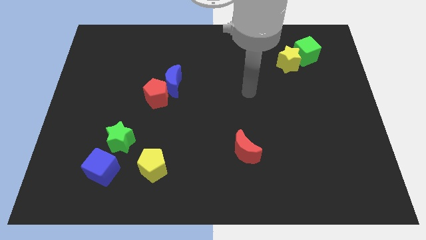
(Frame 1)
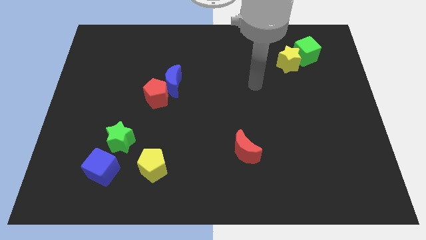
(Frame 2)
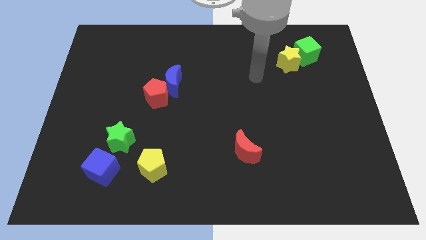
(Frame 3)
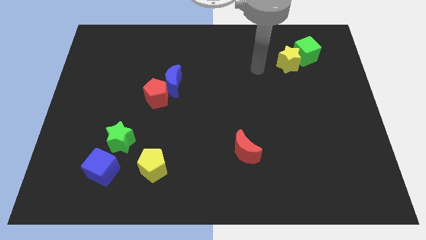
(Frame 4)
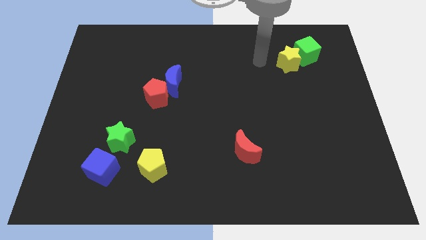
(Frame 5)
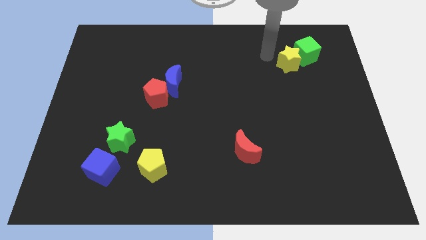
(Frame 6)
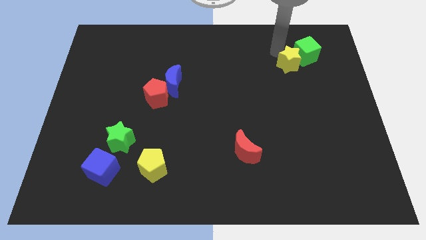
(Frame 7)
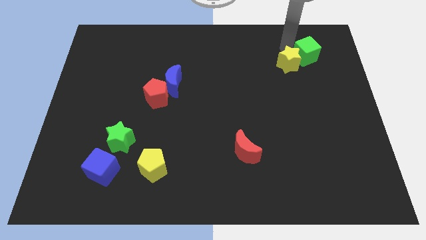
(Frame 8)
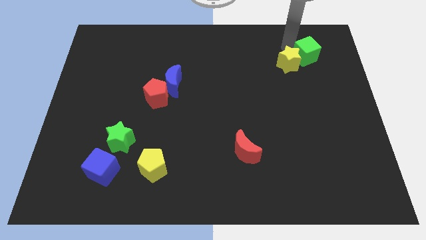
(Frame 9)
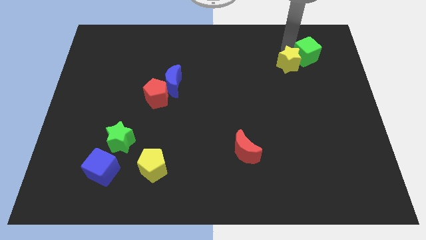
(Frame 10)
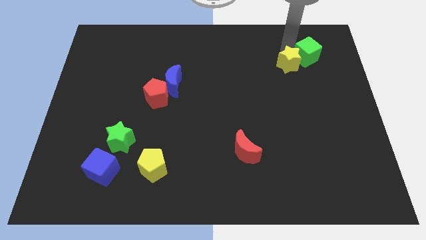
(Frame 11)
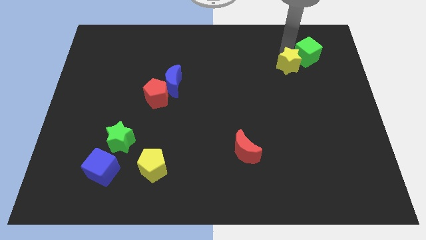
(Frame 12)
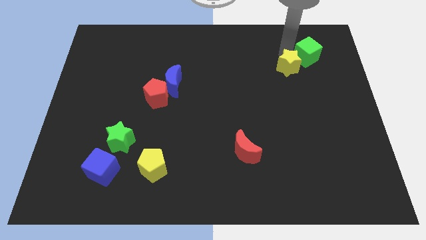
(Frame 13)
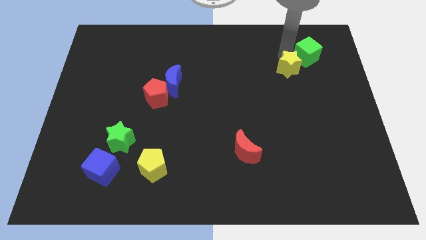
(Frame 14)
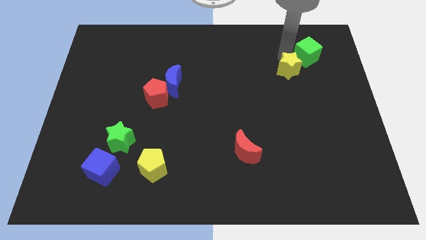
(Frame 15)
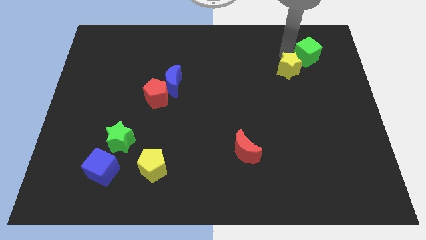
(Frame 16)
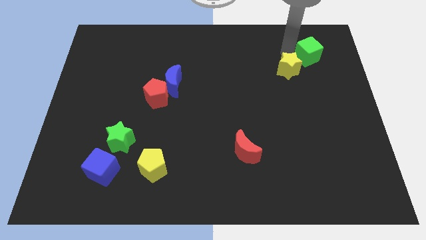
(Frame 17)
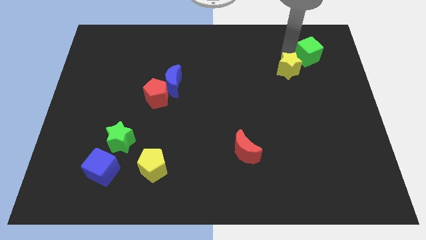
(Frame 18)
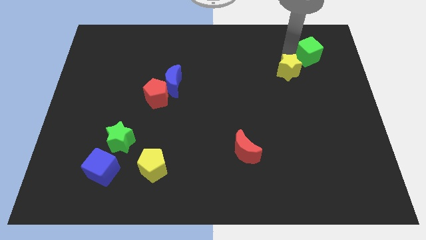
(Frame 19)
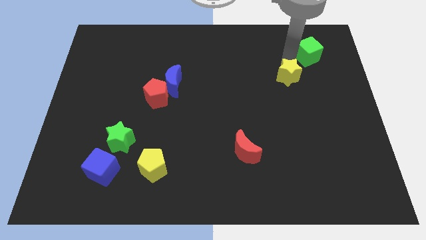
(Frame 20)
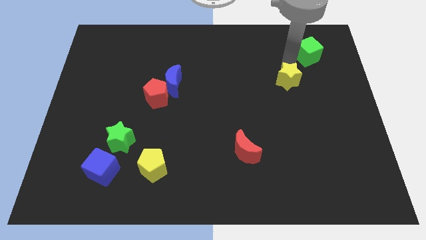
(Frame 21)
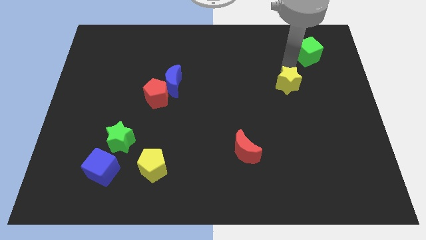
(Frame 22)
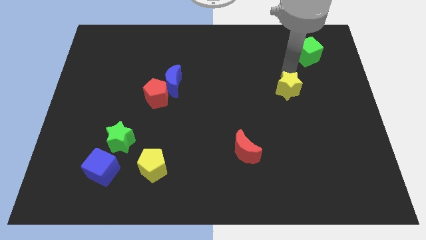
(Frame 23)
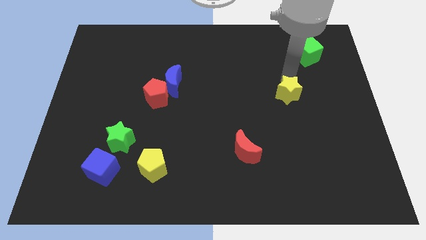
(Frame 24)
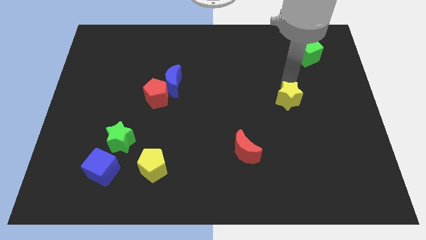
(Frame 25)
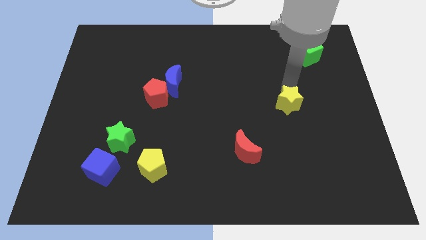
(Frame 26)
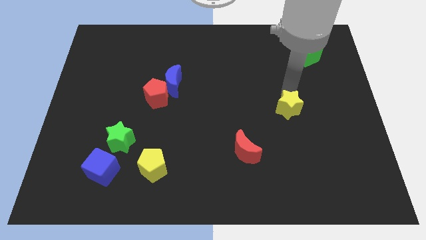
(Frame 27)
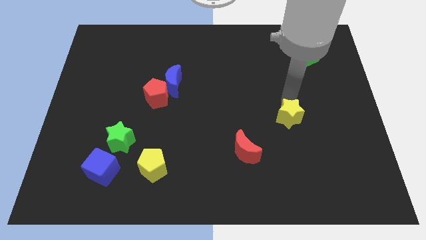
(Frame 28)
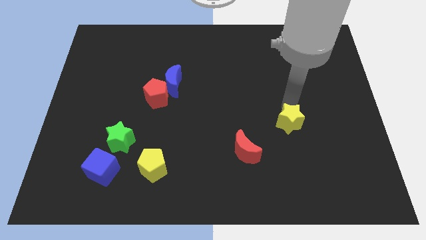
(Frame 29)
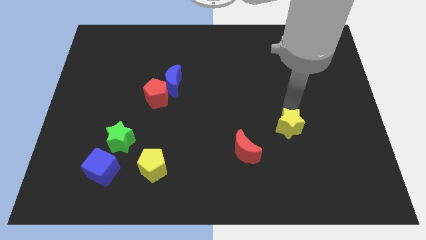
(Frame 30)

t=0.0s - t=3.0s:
slide the yellow star downwards

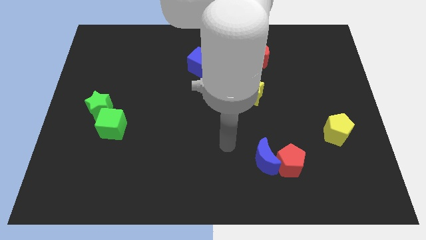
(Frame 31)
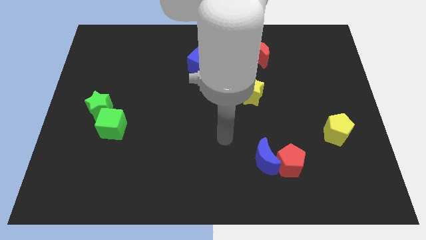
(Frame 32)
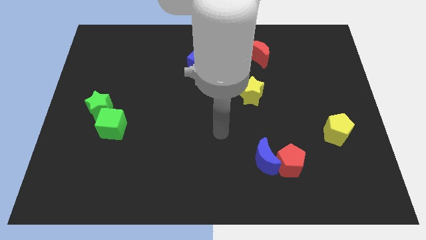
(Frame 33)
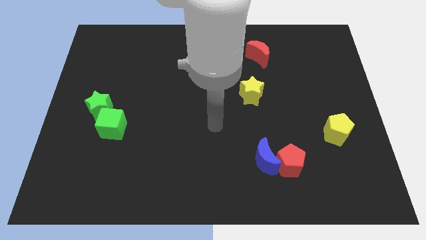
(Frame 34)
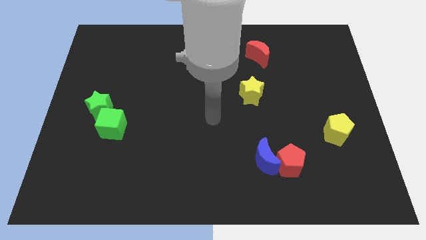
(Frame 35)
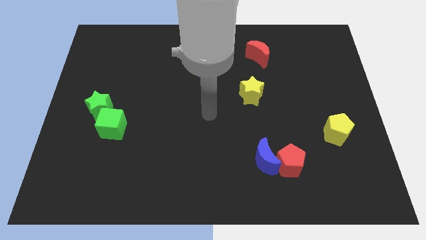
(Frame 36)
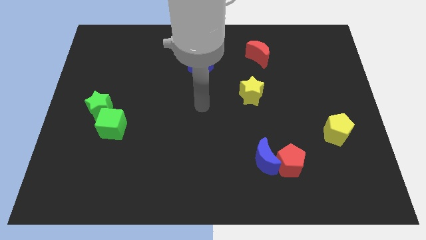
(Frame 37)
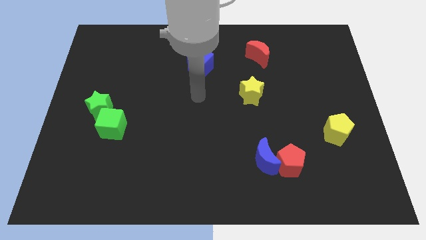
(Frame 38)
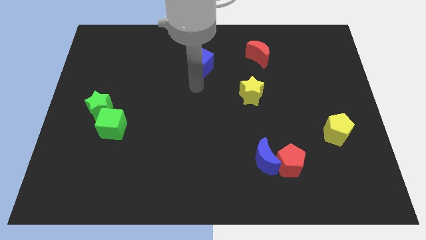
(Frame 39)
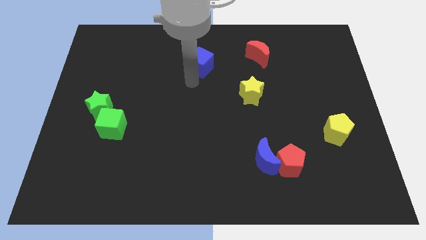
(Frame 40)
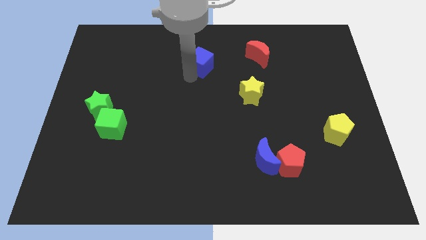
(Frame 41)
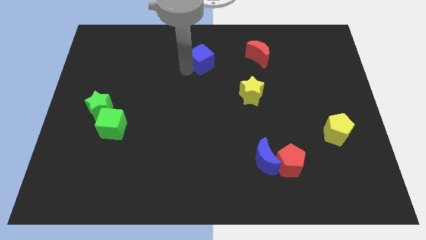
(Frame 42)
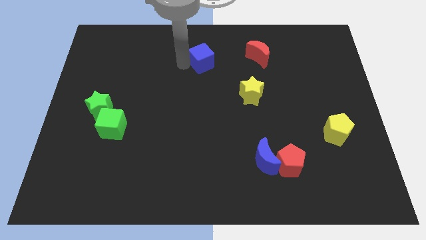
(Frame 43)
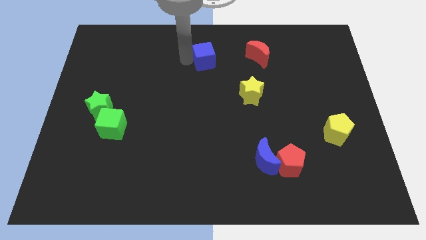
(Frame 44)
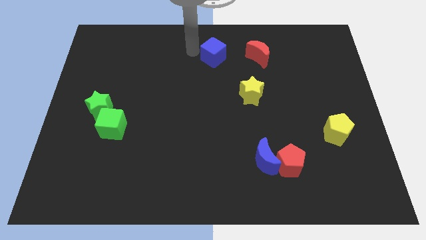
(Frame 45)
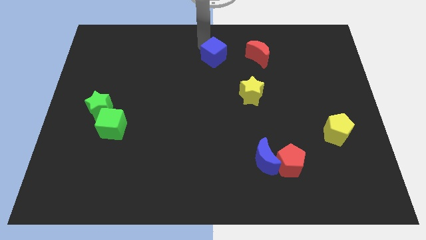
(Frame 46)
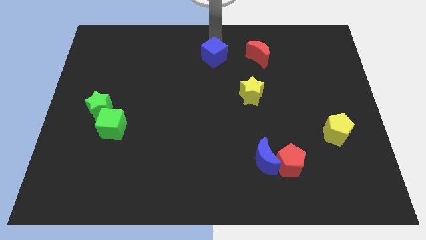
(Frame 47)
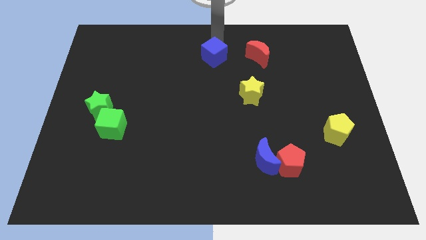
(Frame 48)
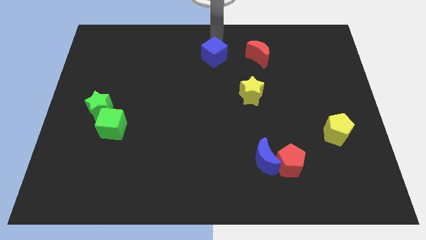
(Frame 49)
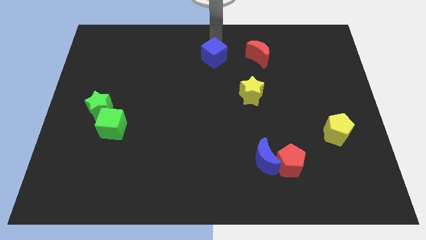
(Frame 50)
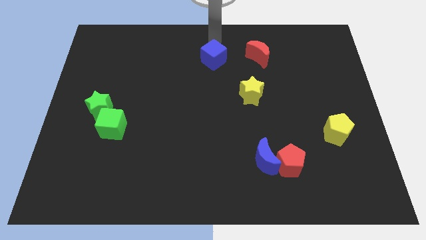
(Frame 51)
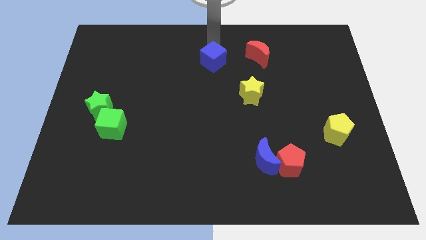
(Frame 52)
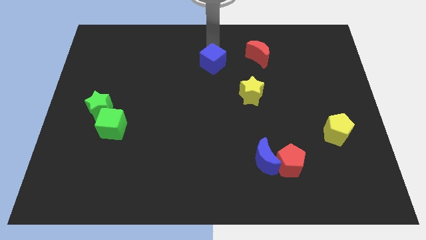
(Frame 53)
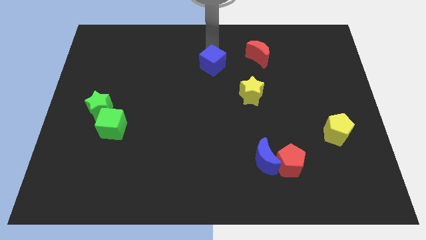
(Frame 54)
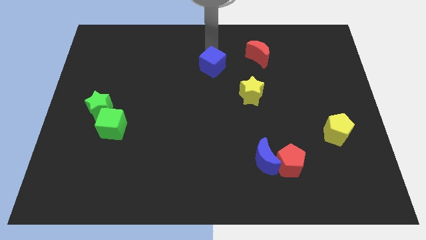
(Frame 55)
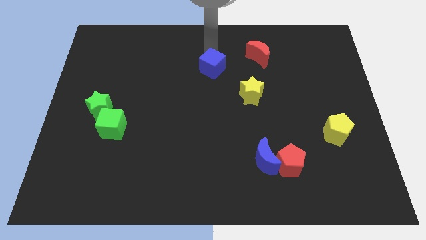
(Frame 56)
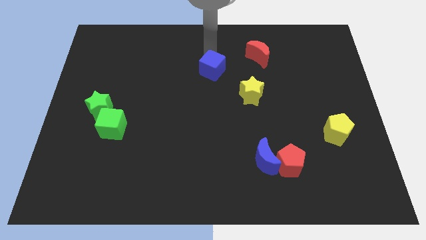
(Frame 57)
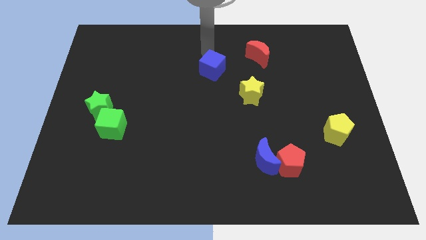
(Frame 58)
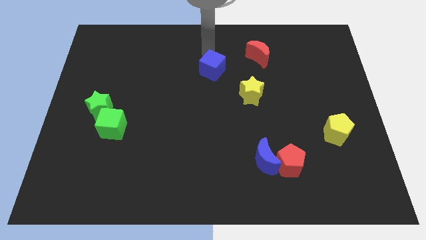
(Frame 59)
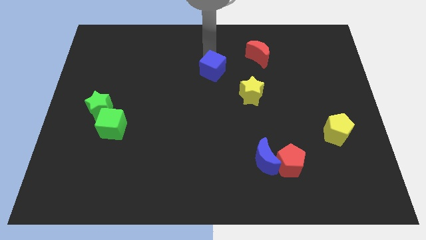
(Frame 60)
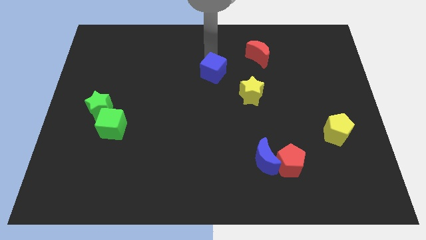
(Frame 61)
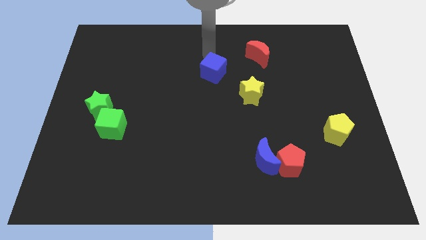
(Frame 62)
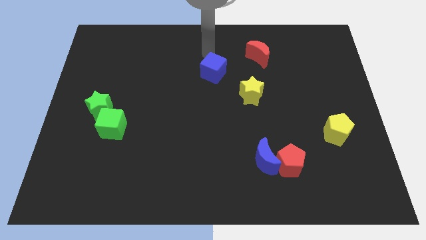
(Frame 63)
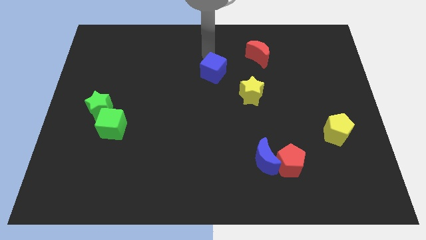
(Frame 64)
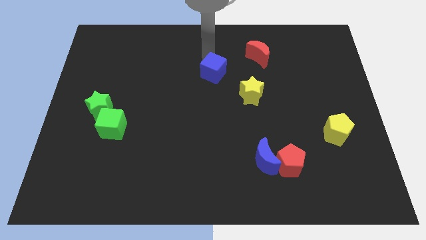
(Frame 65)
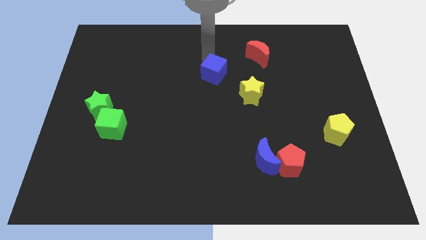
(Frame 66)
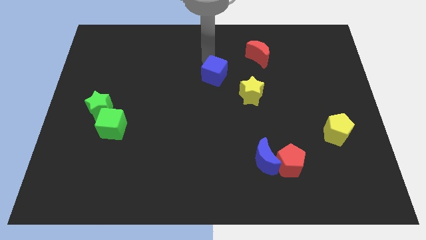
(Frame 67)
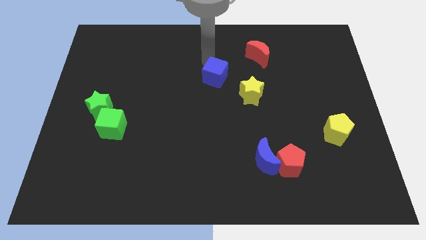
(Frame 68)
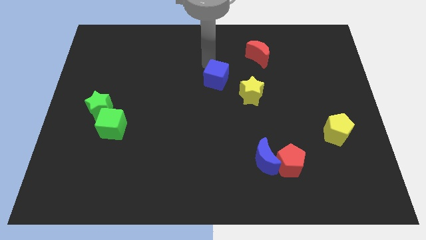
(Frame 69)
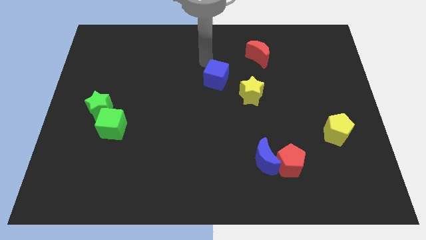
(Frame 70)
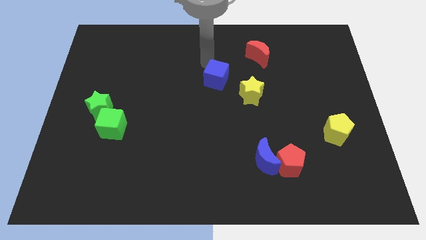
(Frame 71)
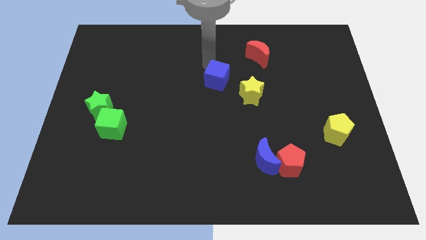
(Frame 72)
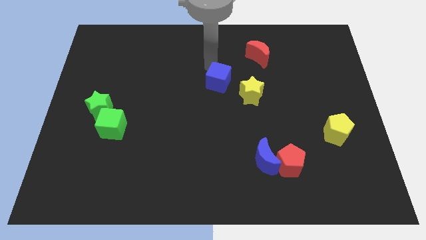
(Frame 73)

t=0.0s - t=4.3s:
slide the blue cube a little downwards and to the right

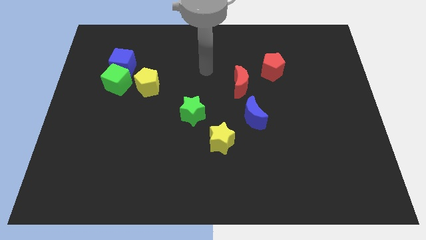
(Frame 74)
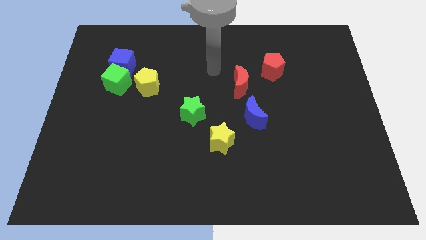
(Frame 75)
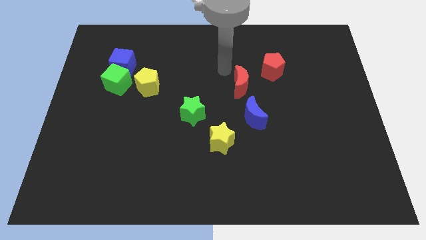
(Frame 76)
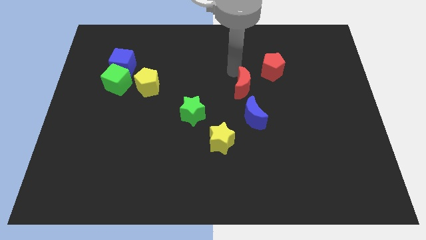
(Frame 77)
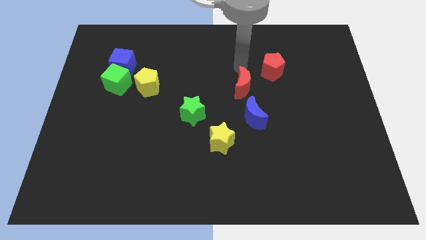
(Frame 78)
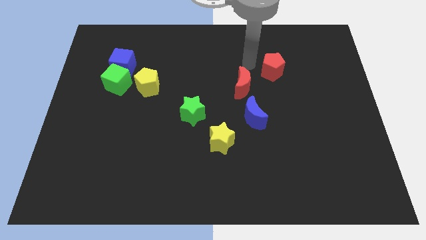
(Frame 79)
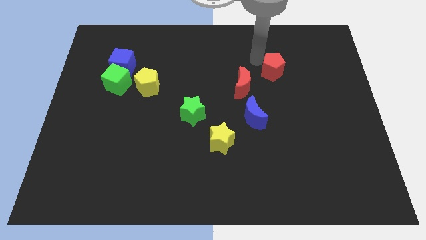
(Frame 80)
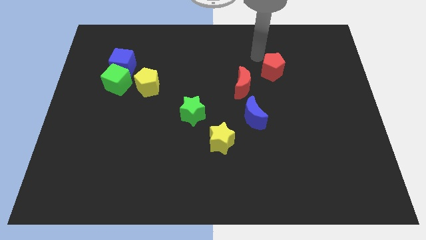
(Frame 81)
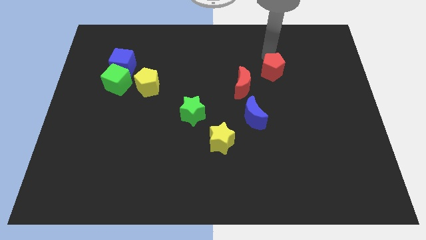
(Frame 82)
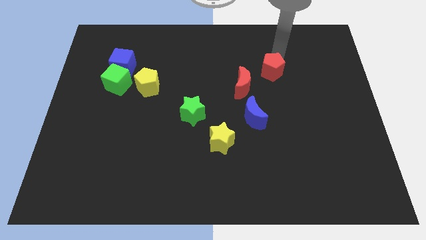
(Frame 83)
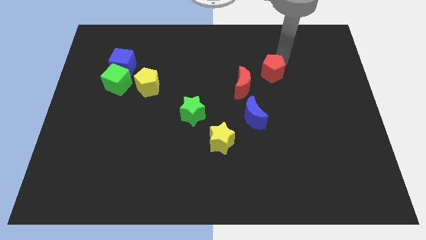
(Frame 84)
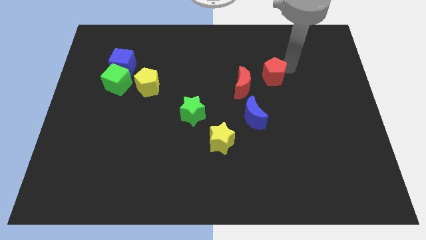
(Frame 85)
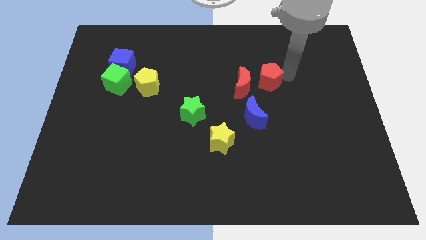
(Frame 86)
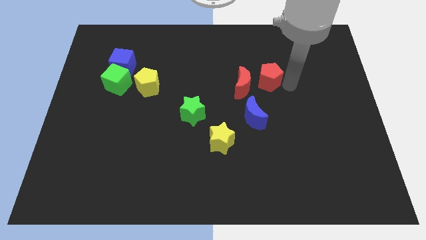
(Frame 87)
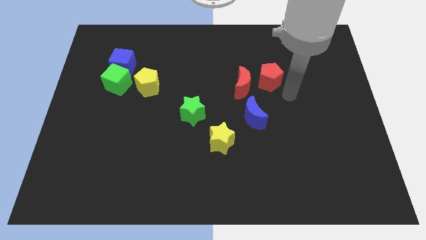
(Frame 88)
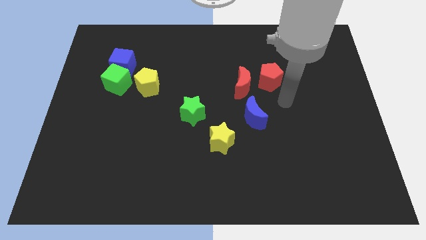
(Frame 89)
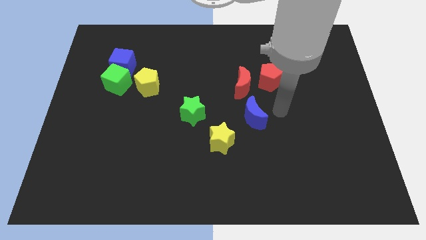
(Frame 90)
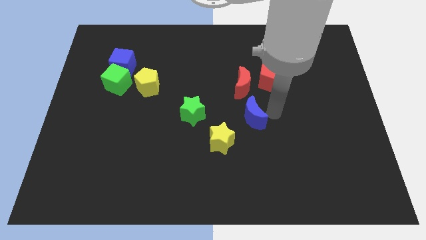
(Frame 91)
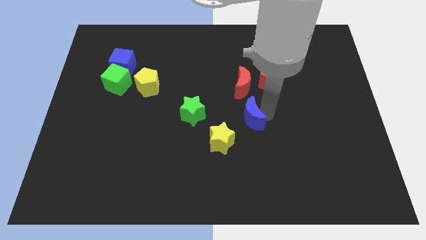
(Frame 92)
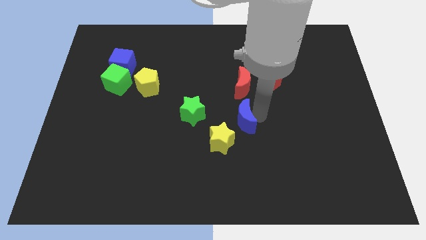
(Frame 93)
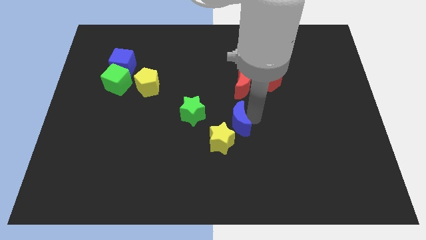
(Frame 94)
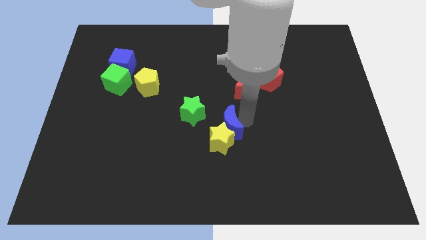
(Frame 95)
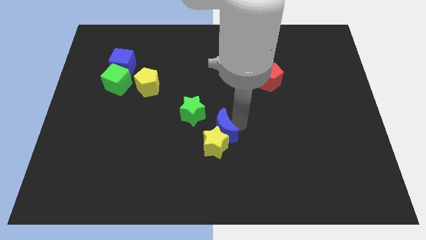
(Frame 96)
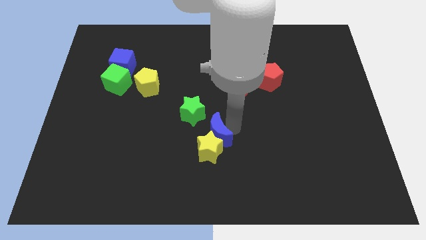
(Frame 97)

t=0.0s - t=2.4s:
slightly push the blue moon left
